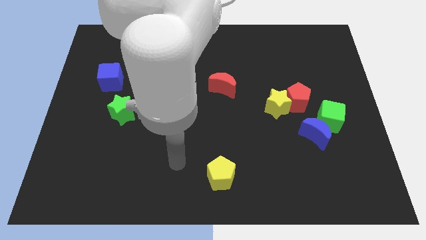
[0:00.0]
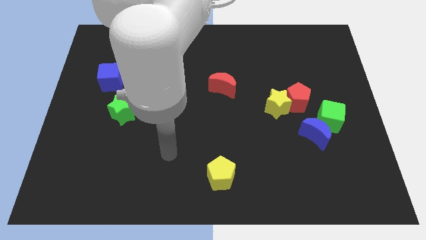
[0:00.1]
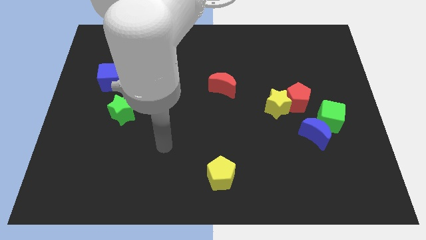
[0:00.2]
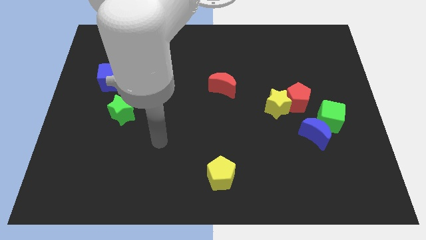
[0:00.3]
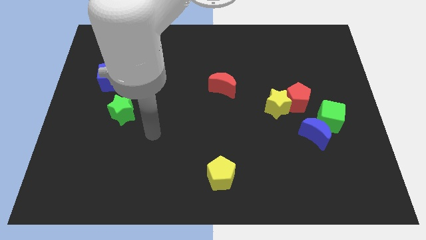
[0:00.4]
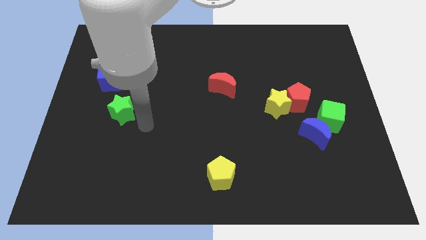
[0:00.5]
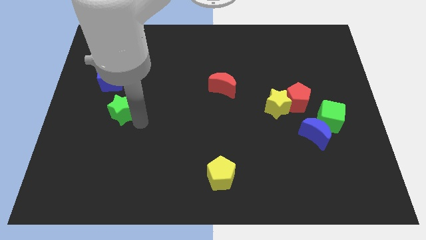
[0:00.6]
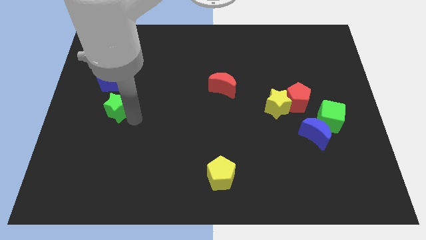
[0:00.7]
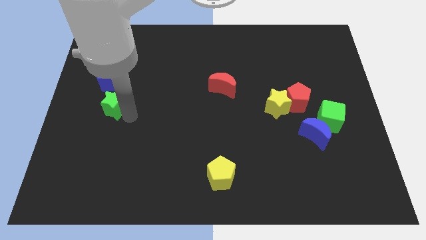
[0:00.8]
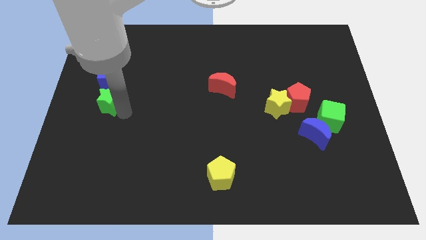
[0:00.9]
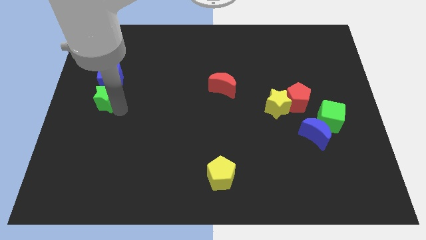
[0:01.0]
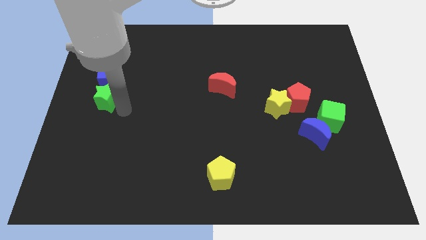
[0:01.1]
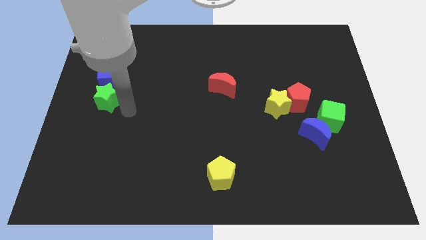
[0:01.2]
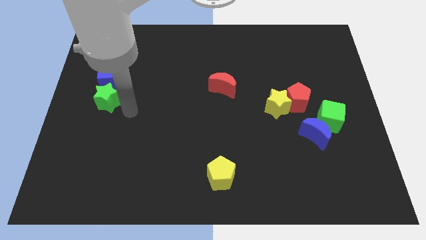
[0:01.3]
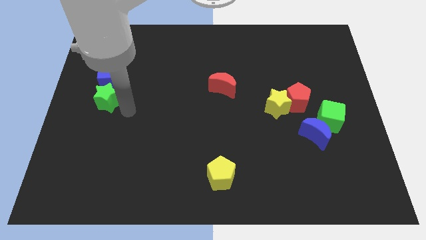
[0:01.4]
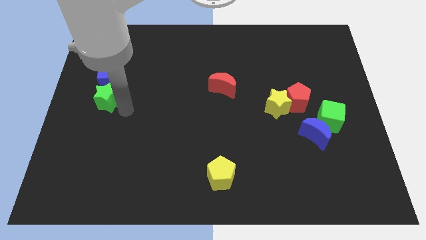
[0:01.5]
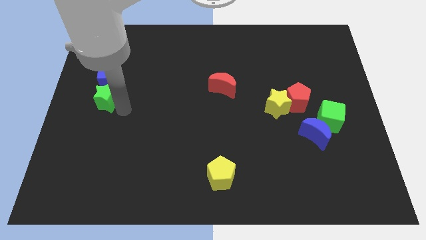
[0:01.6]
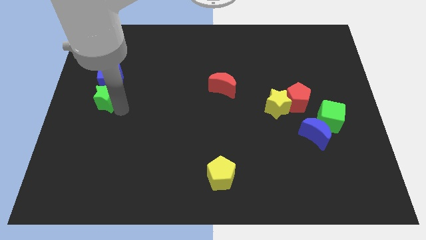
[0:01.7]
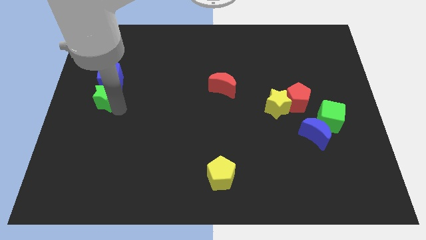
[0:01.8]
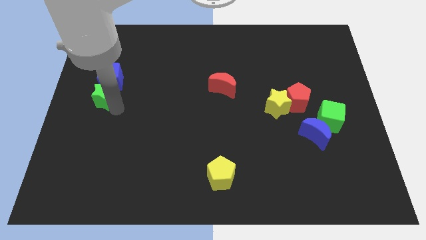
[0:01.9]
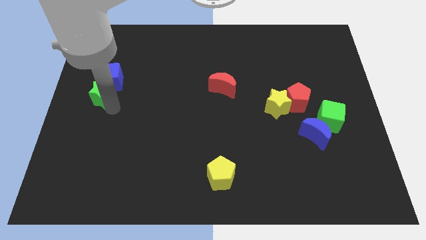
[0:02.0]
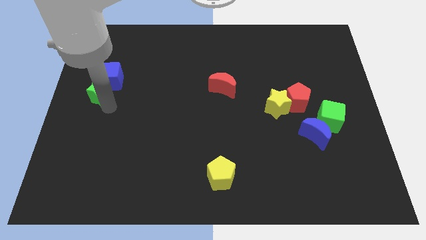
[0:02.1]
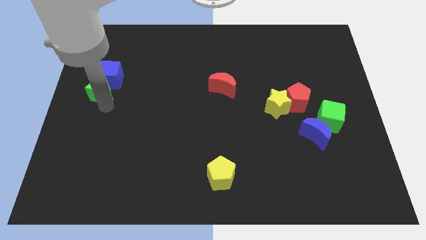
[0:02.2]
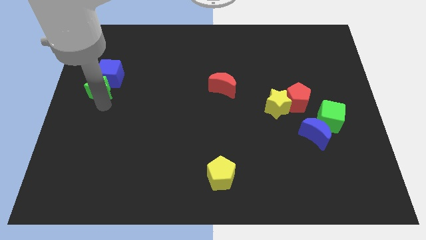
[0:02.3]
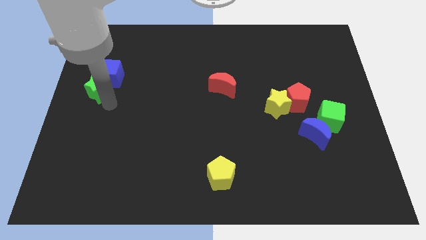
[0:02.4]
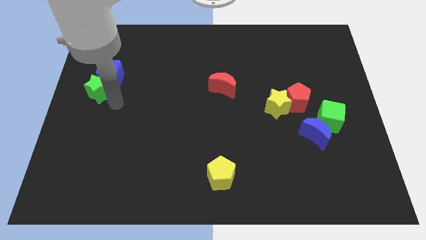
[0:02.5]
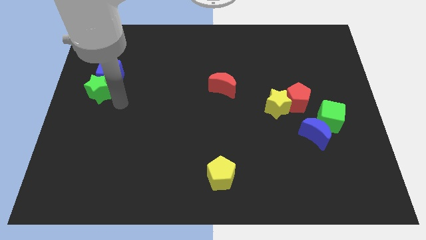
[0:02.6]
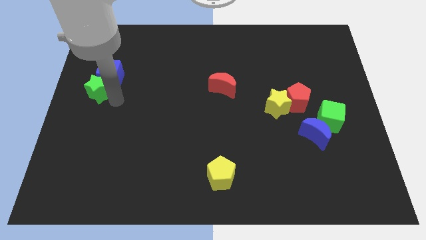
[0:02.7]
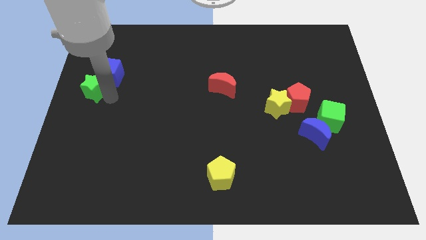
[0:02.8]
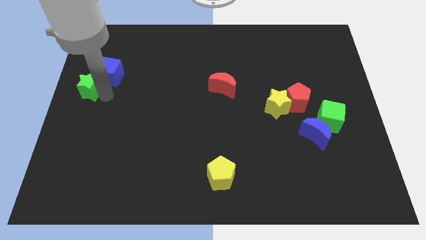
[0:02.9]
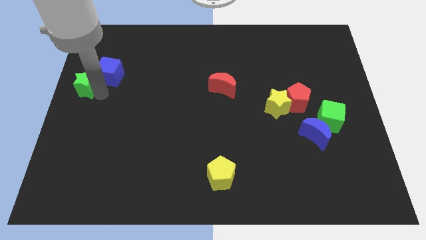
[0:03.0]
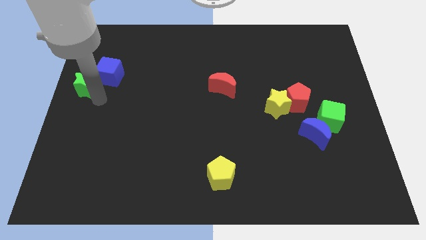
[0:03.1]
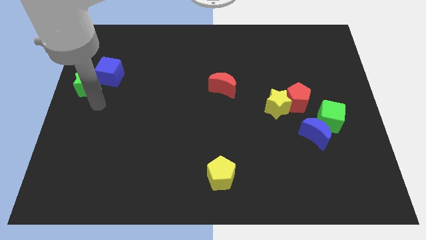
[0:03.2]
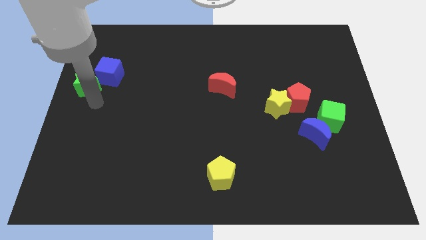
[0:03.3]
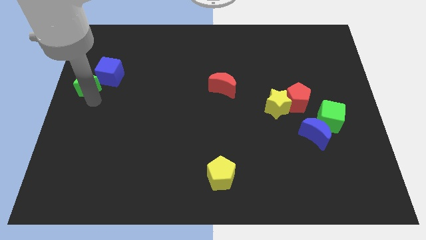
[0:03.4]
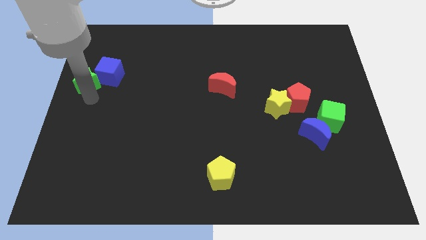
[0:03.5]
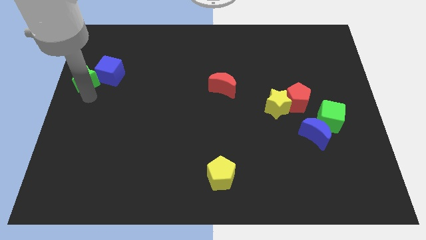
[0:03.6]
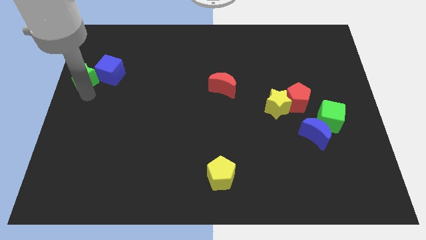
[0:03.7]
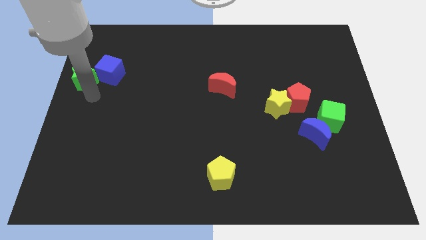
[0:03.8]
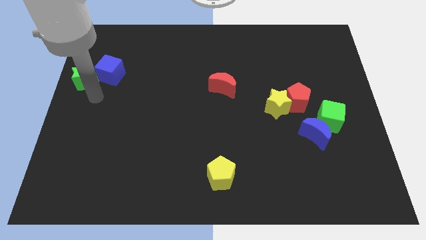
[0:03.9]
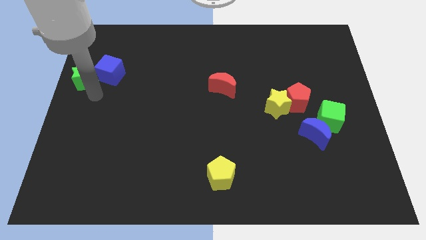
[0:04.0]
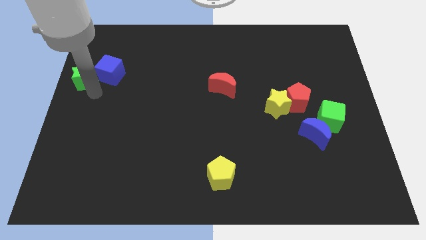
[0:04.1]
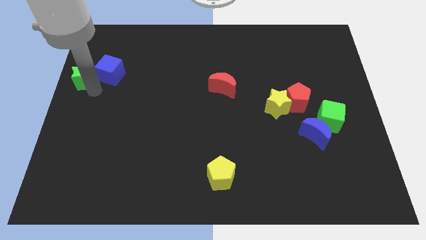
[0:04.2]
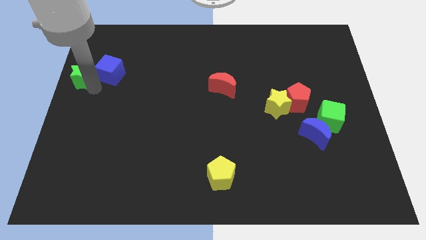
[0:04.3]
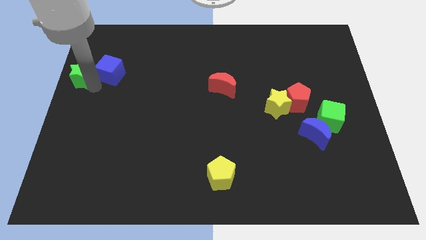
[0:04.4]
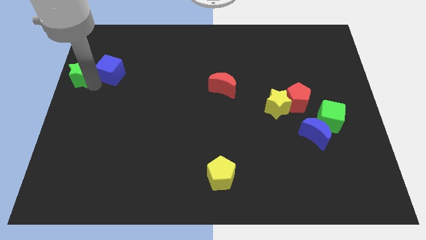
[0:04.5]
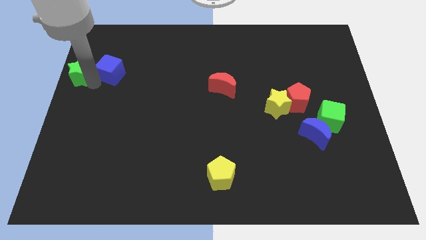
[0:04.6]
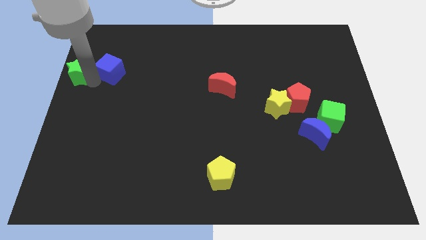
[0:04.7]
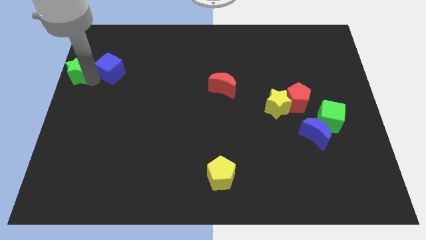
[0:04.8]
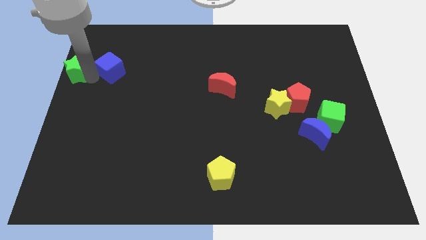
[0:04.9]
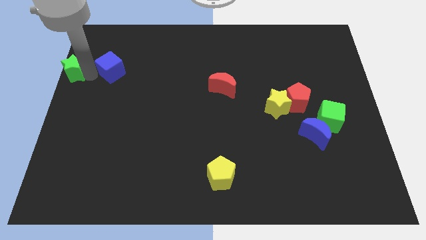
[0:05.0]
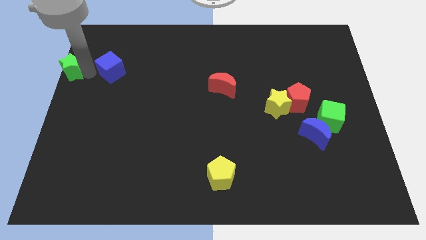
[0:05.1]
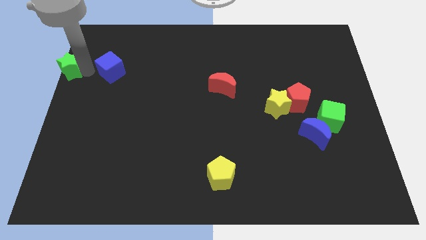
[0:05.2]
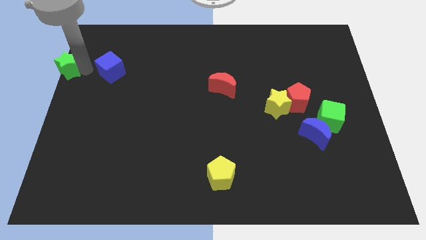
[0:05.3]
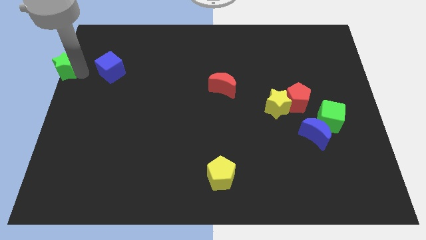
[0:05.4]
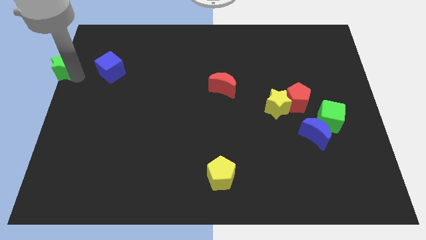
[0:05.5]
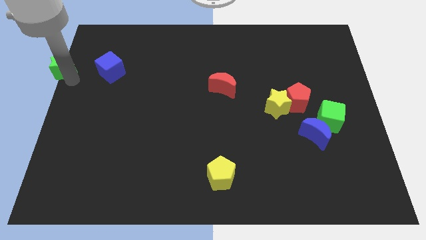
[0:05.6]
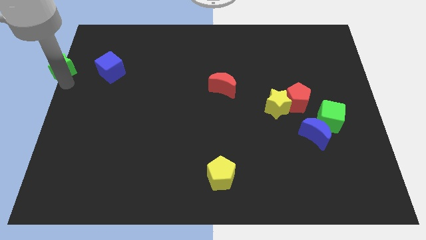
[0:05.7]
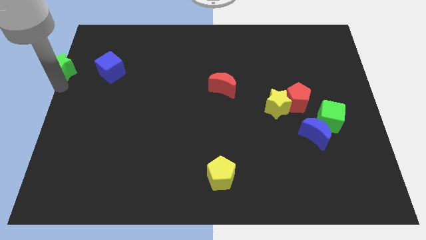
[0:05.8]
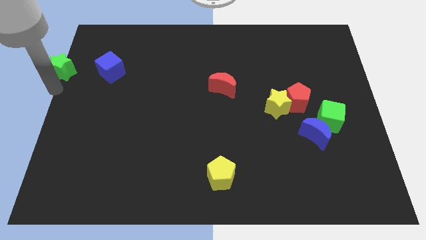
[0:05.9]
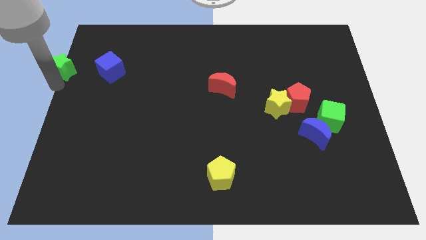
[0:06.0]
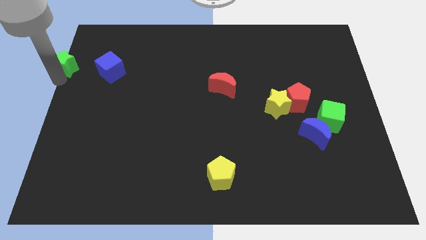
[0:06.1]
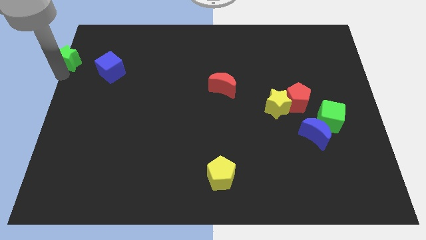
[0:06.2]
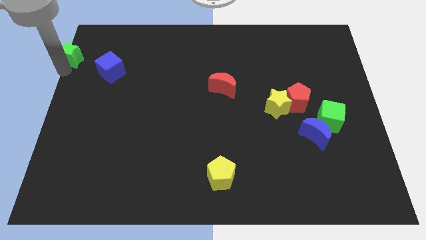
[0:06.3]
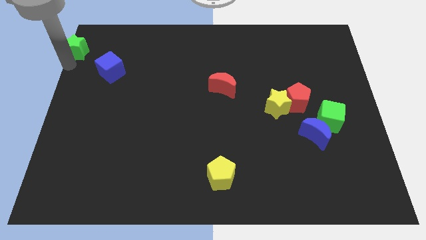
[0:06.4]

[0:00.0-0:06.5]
push the green star to the top left
